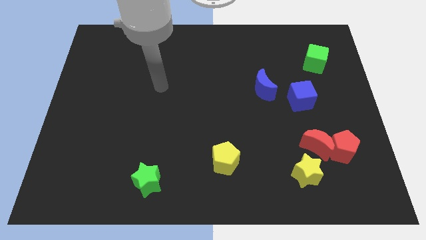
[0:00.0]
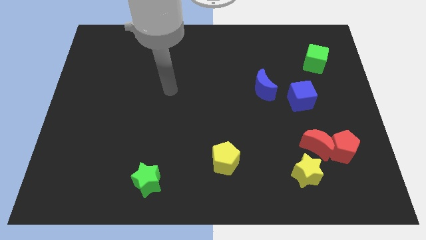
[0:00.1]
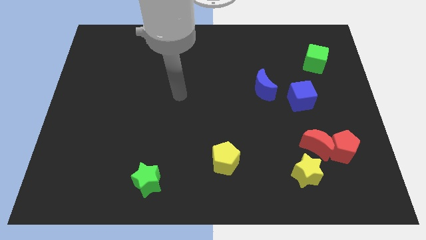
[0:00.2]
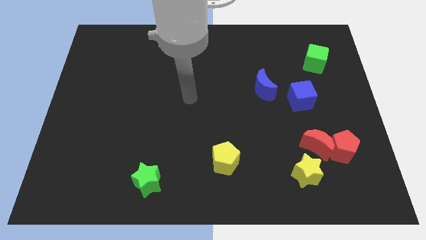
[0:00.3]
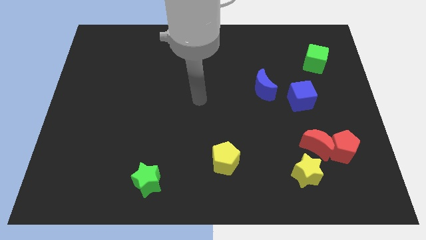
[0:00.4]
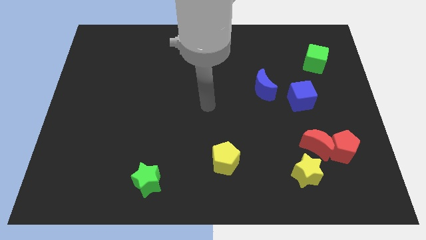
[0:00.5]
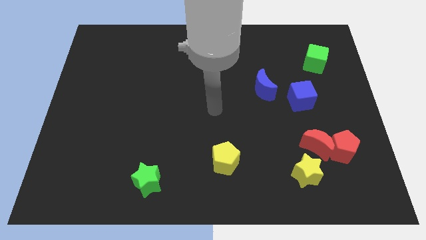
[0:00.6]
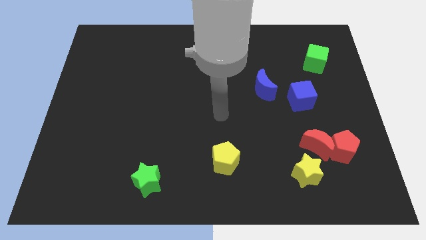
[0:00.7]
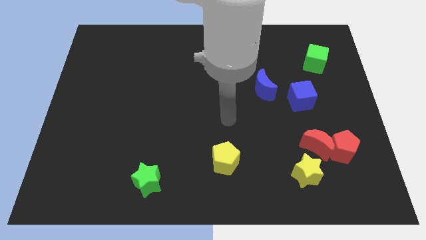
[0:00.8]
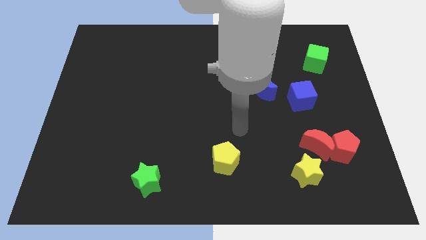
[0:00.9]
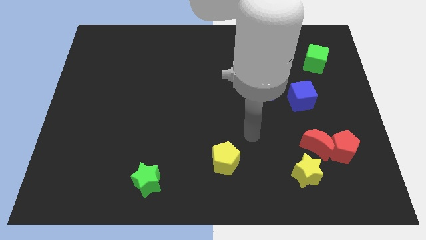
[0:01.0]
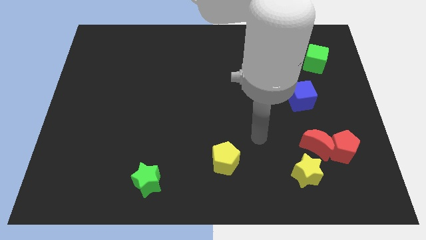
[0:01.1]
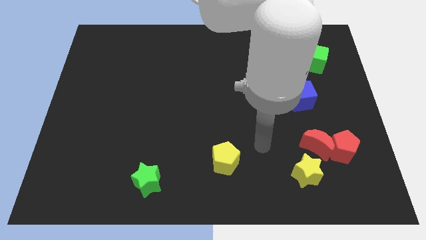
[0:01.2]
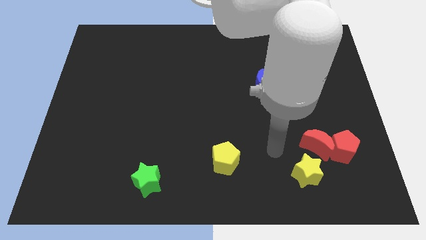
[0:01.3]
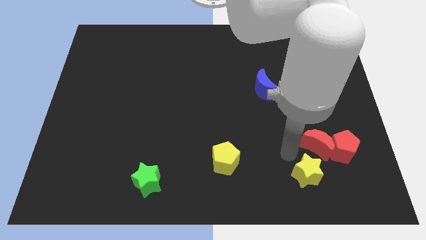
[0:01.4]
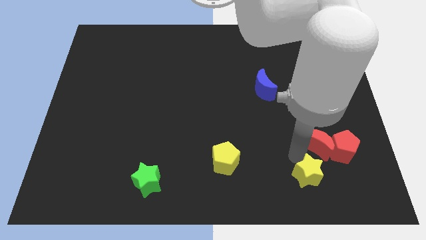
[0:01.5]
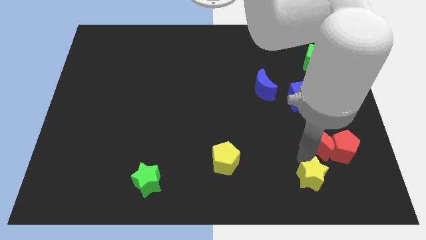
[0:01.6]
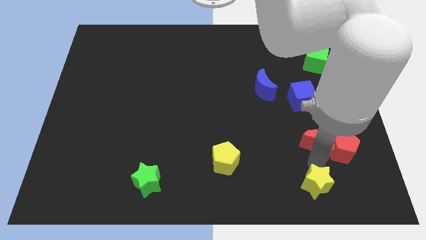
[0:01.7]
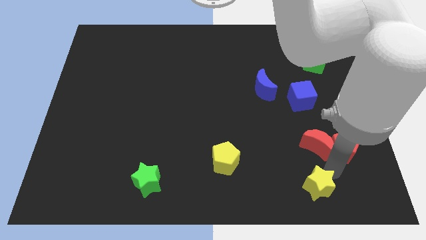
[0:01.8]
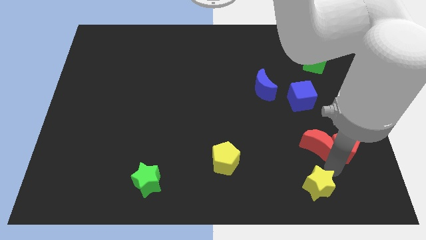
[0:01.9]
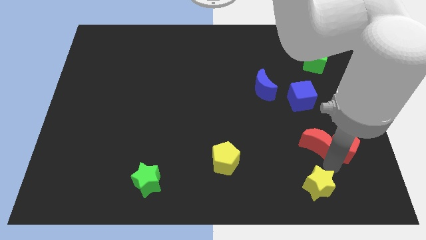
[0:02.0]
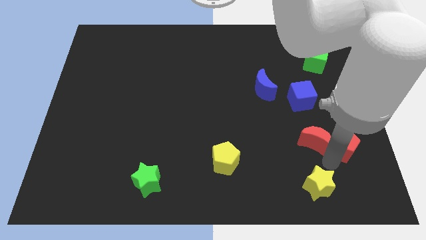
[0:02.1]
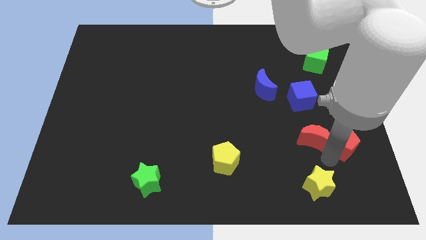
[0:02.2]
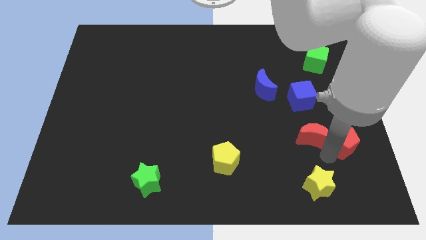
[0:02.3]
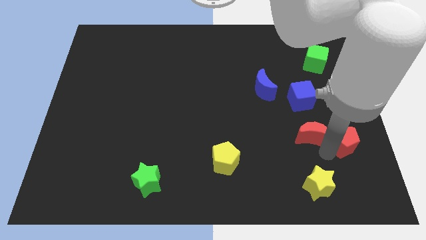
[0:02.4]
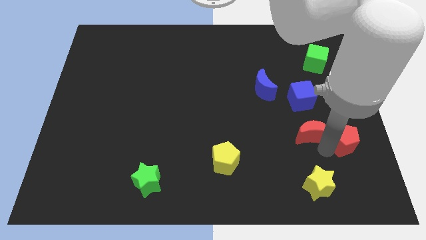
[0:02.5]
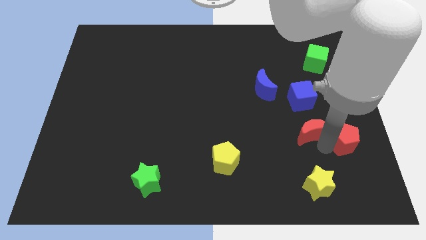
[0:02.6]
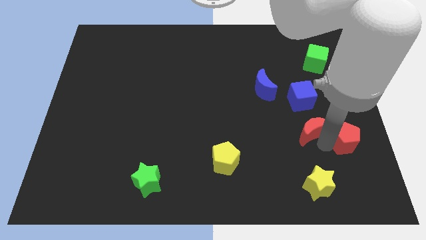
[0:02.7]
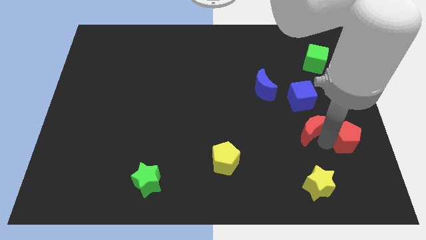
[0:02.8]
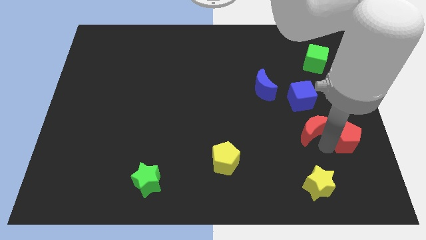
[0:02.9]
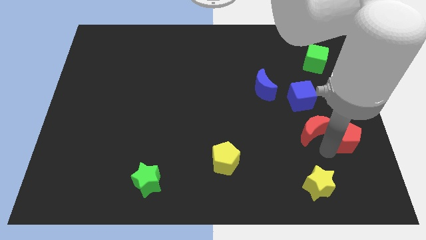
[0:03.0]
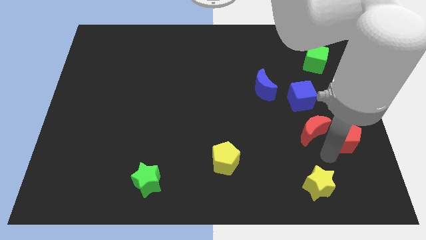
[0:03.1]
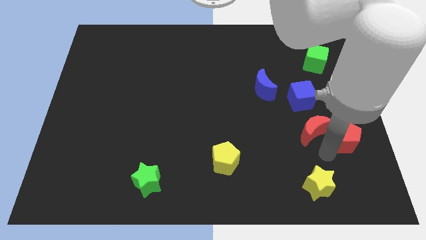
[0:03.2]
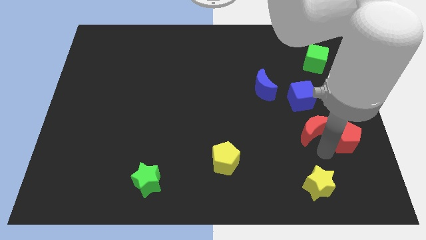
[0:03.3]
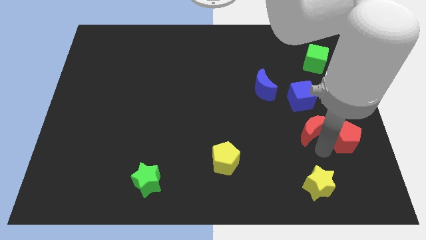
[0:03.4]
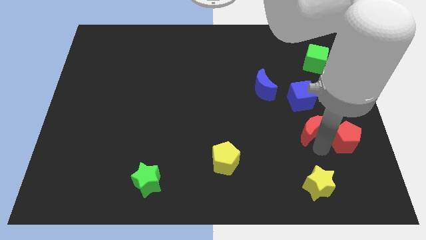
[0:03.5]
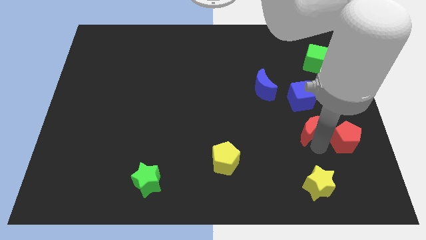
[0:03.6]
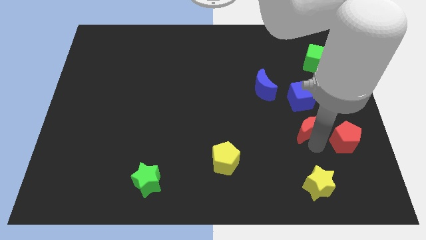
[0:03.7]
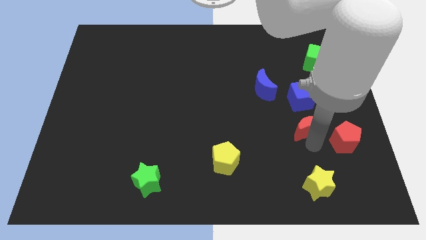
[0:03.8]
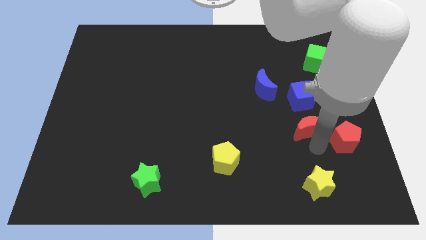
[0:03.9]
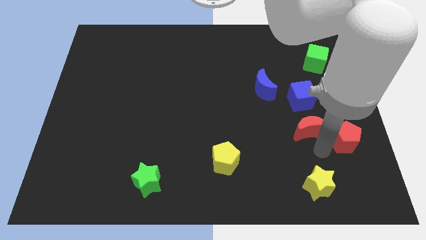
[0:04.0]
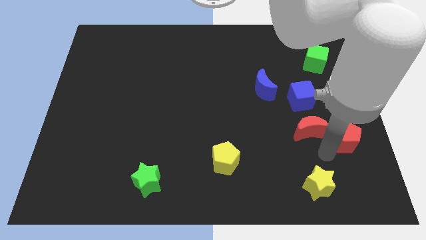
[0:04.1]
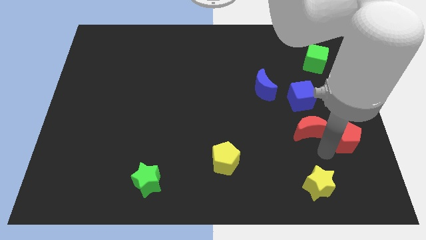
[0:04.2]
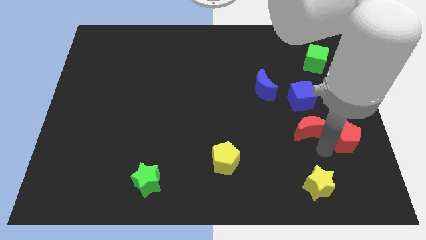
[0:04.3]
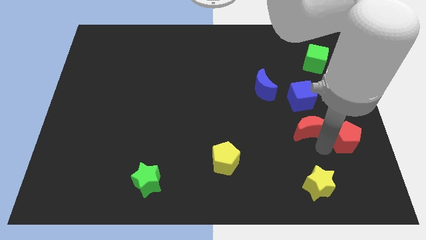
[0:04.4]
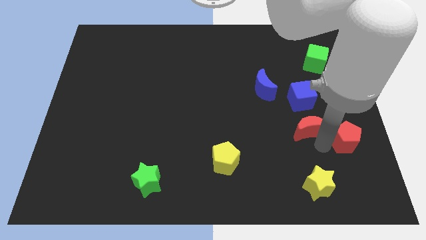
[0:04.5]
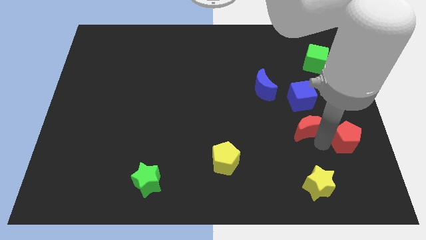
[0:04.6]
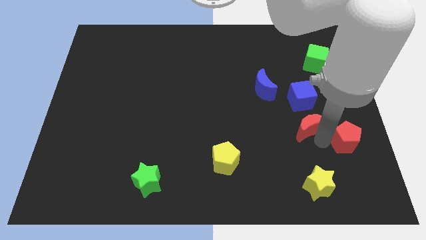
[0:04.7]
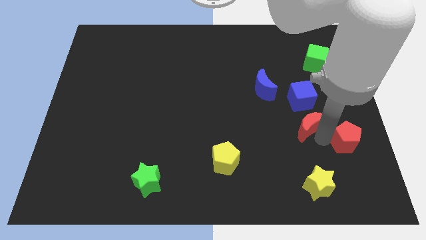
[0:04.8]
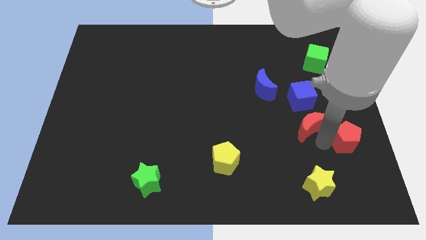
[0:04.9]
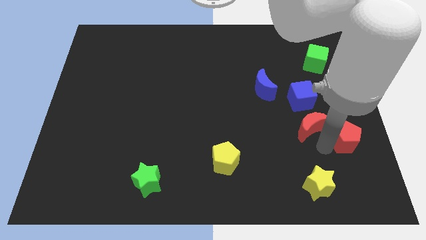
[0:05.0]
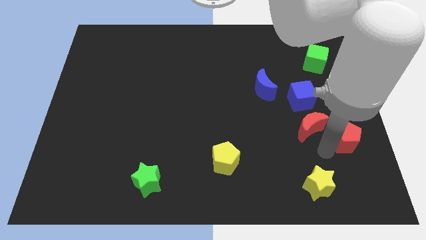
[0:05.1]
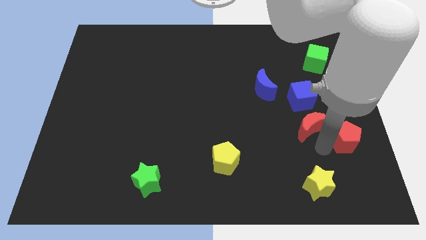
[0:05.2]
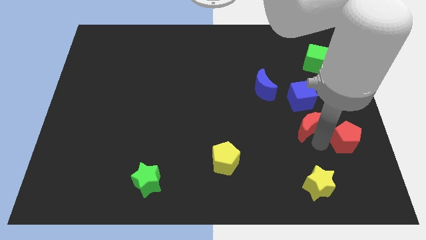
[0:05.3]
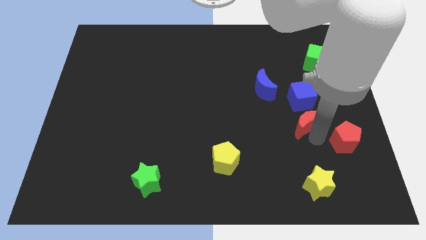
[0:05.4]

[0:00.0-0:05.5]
move the red moon away from the red pentagon and yellow star

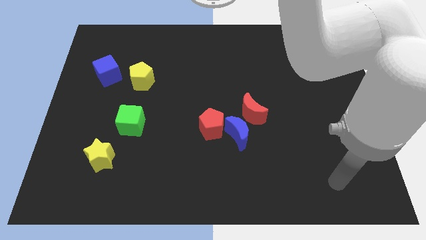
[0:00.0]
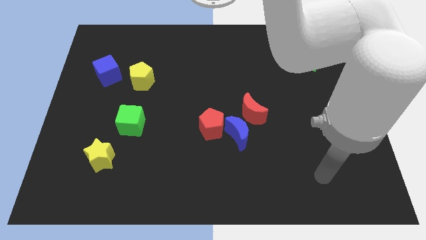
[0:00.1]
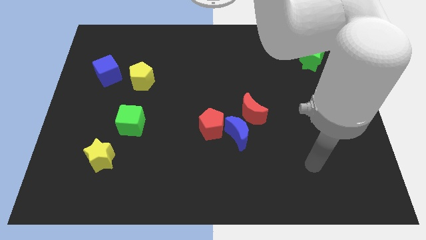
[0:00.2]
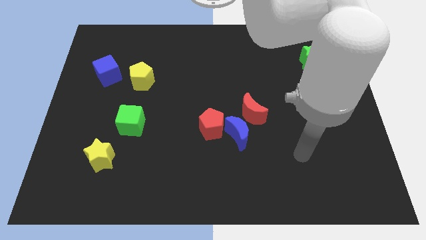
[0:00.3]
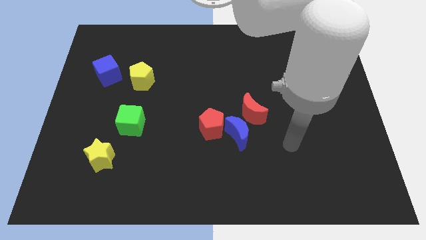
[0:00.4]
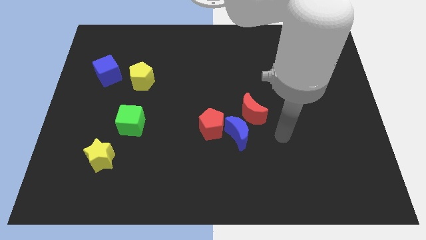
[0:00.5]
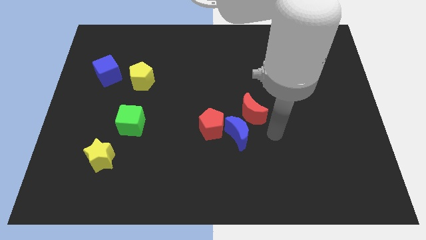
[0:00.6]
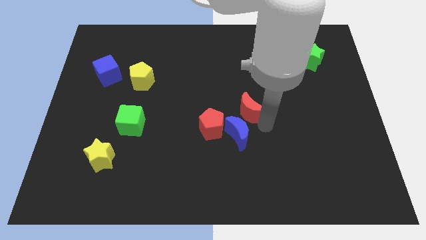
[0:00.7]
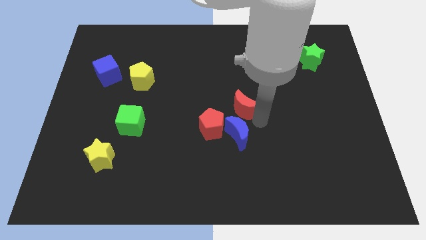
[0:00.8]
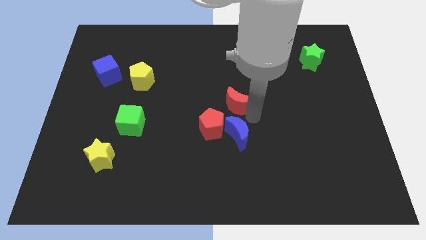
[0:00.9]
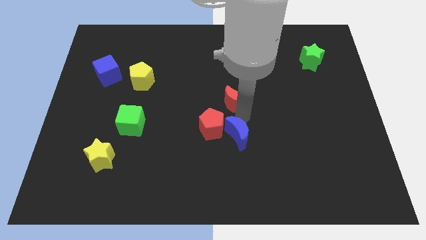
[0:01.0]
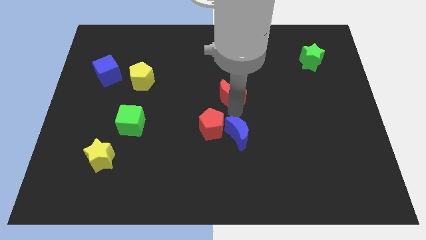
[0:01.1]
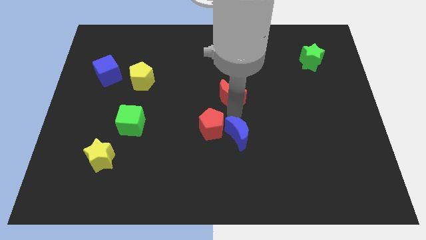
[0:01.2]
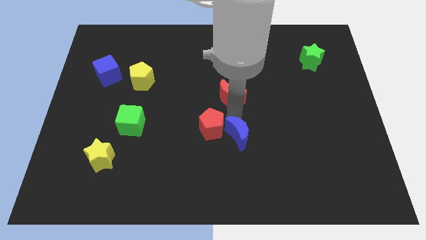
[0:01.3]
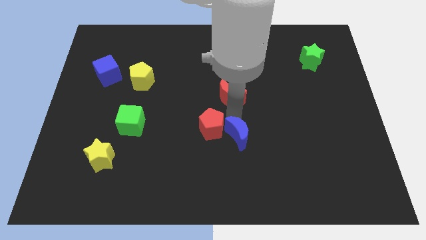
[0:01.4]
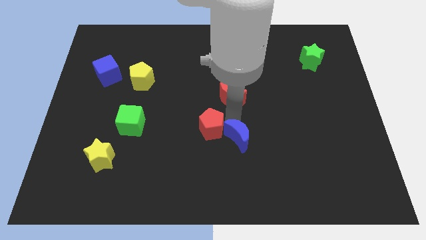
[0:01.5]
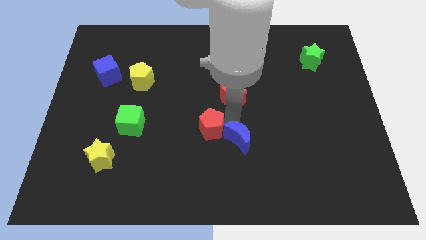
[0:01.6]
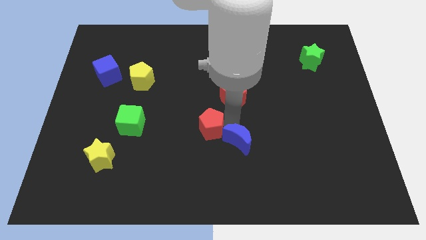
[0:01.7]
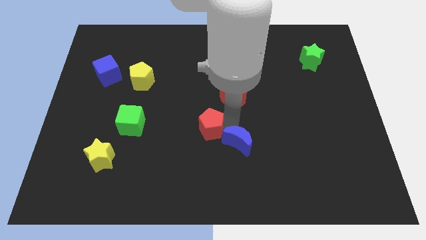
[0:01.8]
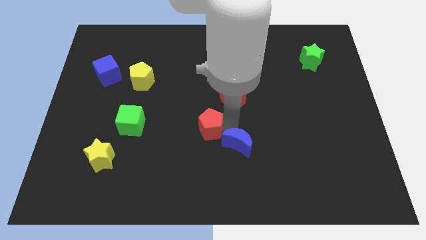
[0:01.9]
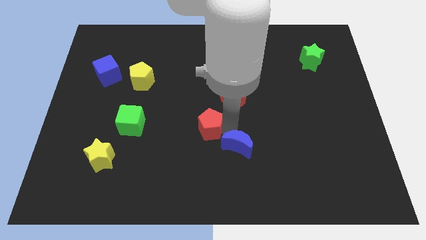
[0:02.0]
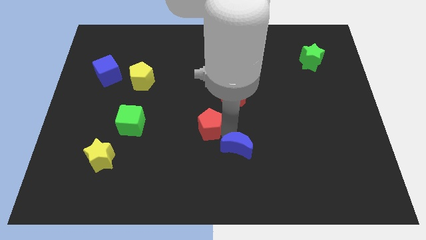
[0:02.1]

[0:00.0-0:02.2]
separate the blue moon from the red pentagon and red moon

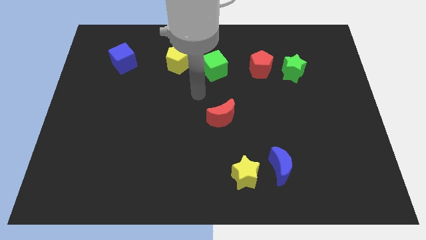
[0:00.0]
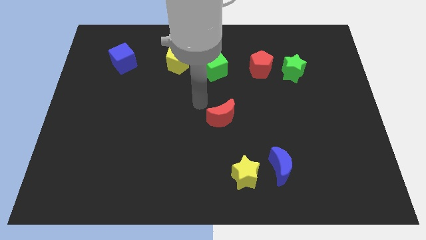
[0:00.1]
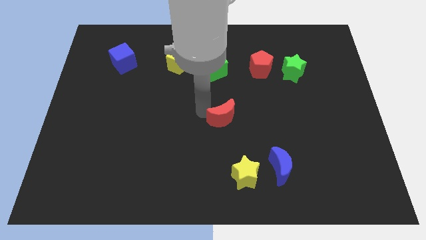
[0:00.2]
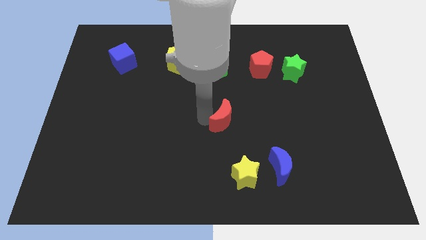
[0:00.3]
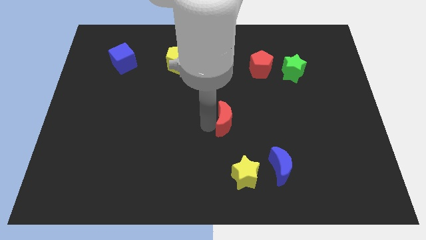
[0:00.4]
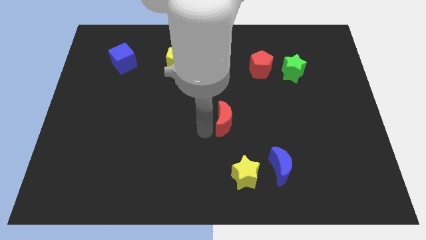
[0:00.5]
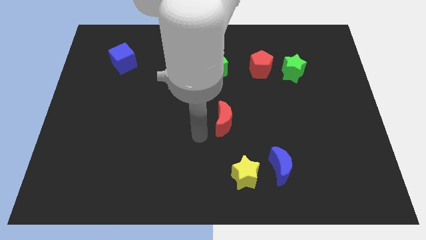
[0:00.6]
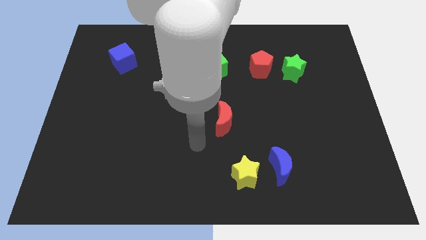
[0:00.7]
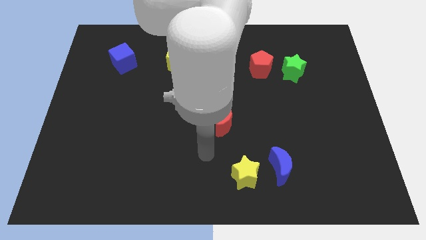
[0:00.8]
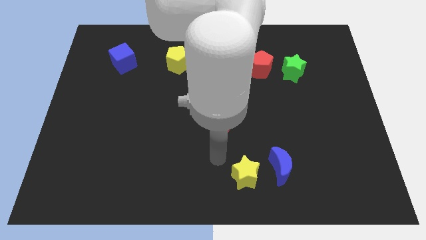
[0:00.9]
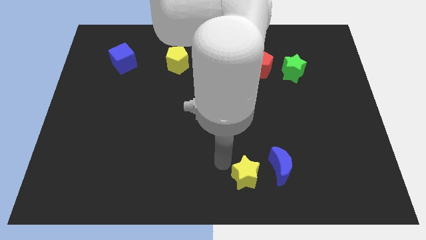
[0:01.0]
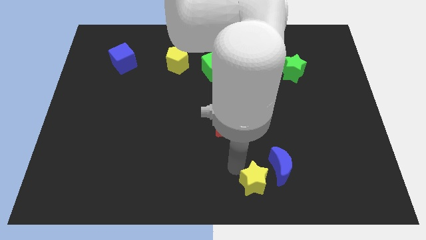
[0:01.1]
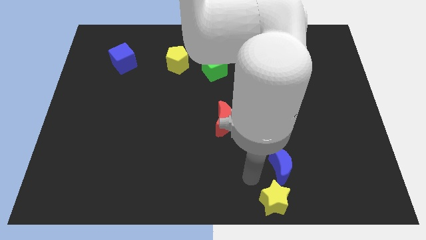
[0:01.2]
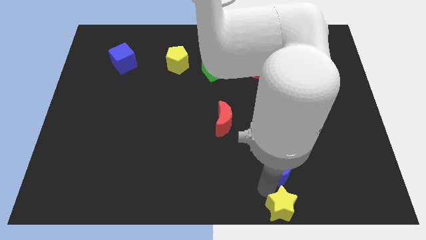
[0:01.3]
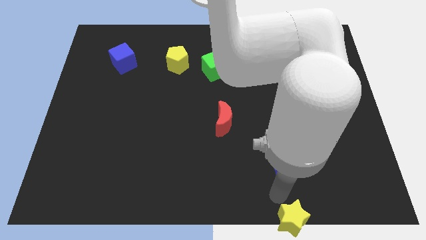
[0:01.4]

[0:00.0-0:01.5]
separate the blue moon from the yellow star

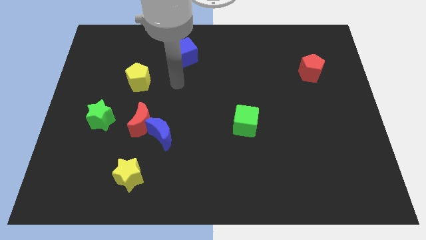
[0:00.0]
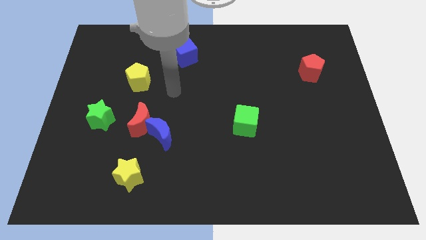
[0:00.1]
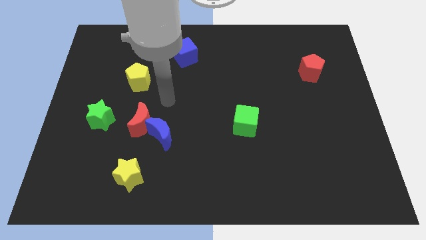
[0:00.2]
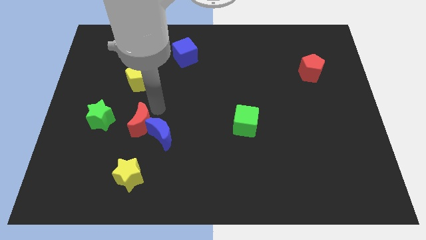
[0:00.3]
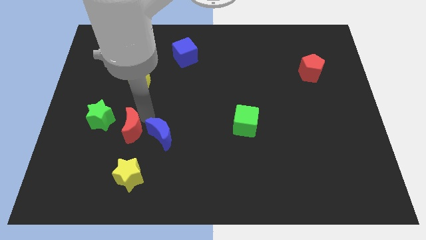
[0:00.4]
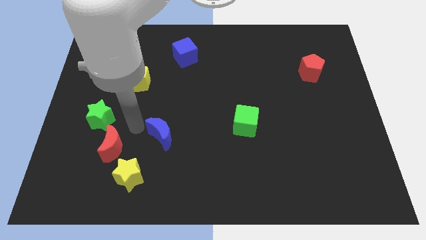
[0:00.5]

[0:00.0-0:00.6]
move the blue moon away from the red moon
